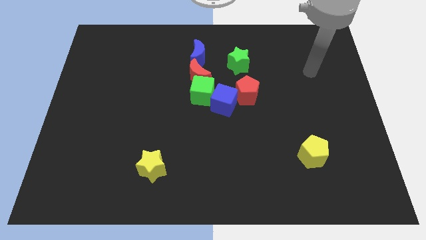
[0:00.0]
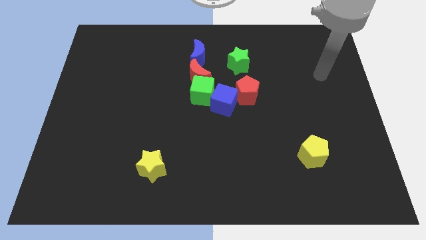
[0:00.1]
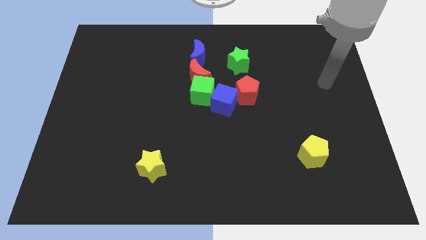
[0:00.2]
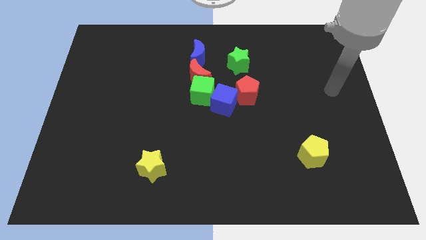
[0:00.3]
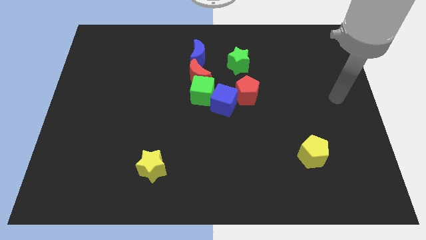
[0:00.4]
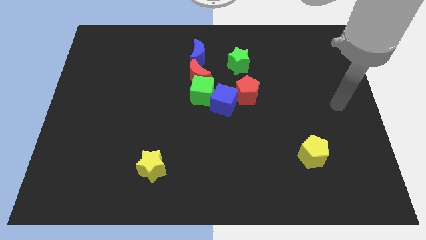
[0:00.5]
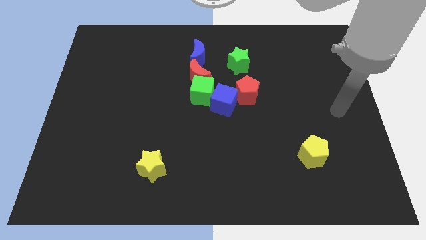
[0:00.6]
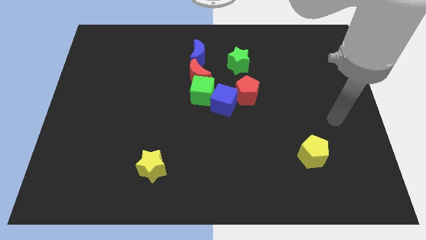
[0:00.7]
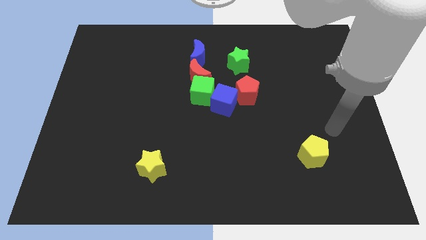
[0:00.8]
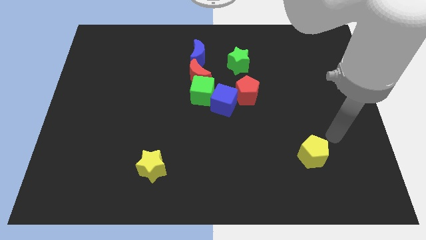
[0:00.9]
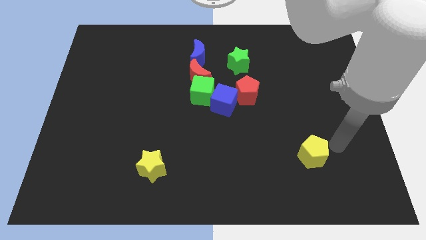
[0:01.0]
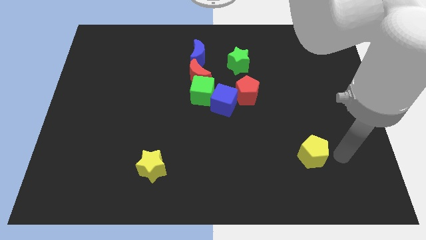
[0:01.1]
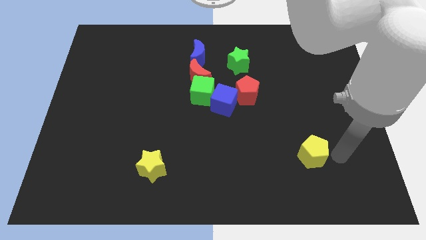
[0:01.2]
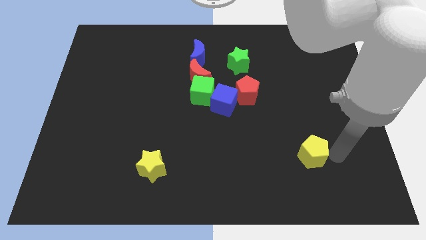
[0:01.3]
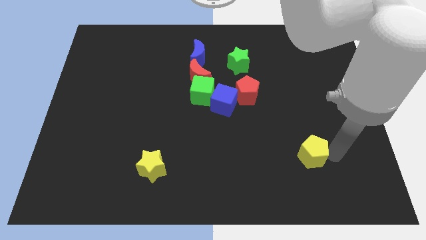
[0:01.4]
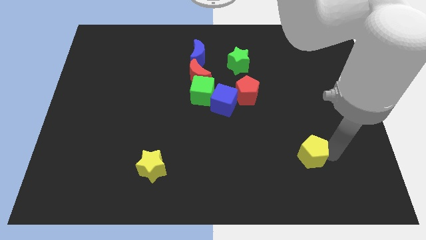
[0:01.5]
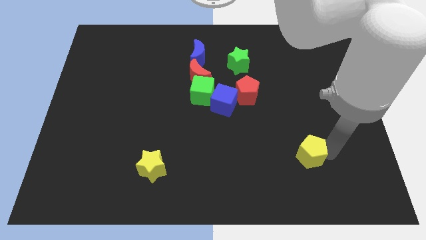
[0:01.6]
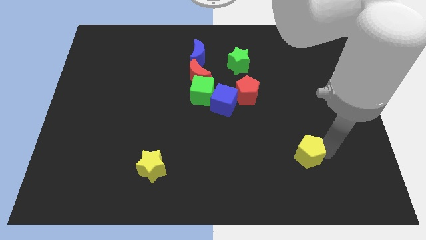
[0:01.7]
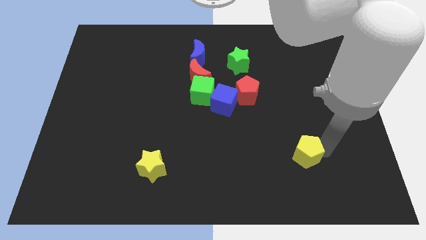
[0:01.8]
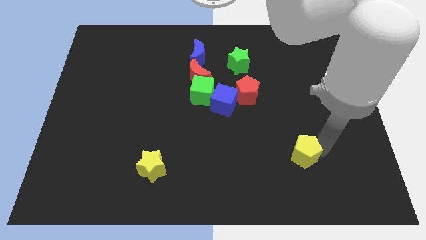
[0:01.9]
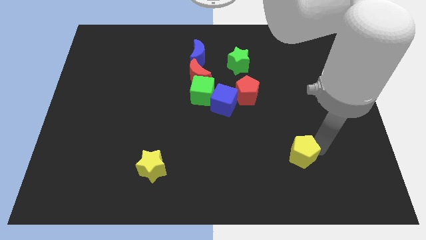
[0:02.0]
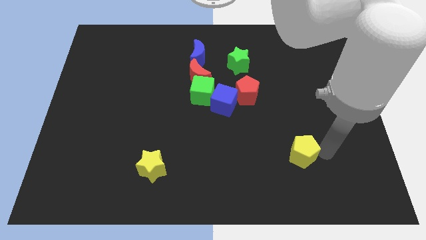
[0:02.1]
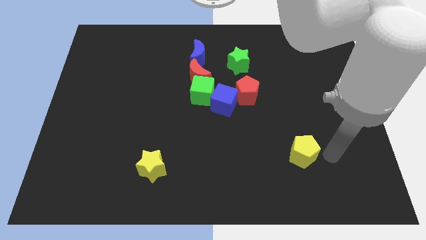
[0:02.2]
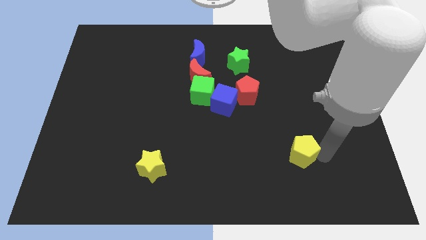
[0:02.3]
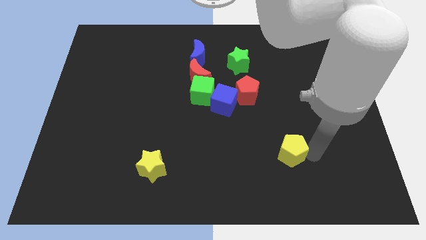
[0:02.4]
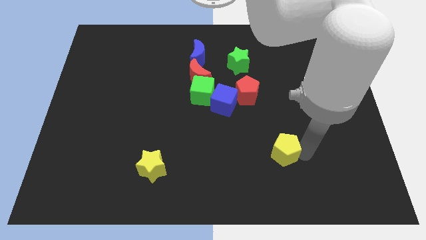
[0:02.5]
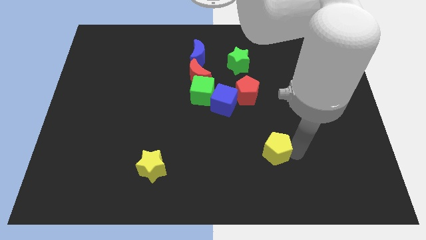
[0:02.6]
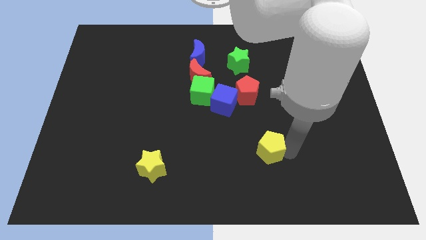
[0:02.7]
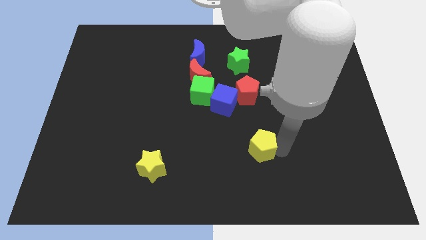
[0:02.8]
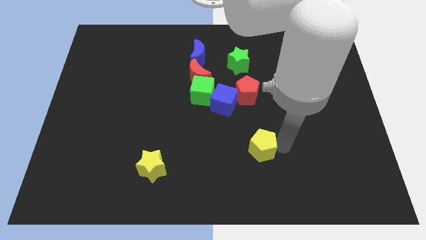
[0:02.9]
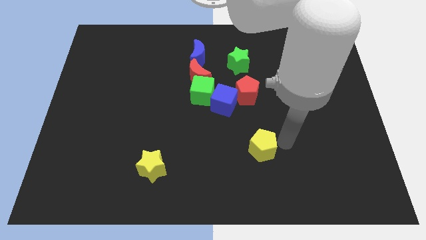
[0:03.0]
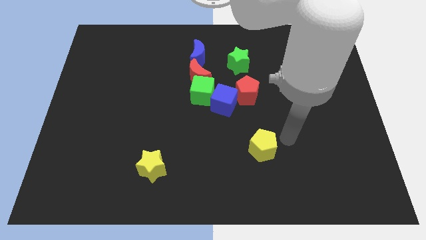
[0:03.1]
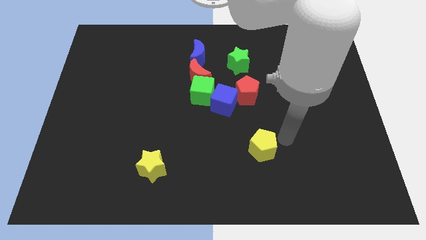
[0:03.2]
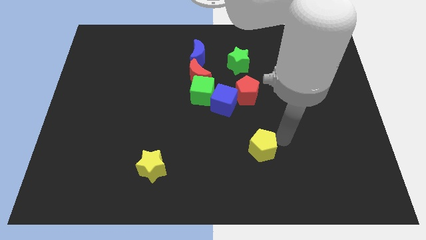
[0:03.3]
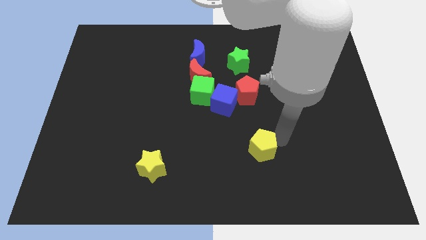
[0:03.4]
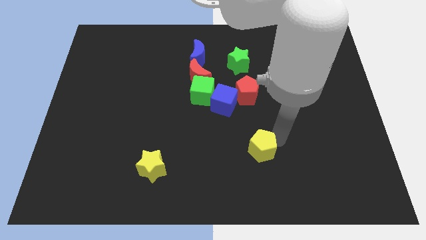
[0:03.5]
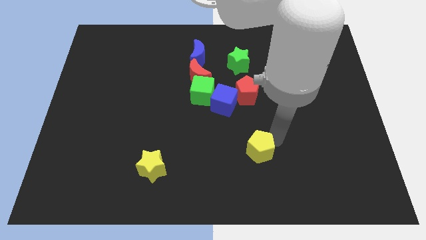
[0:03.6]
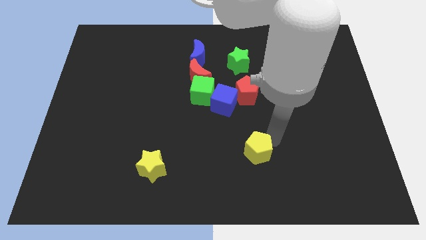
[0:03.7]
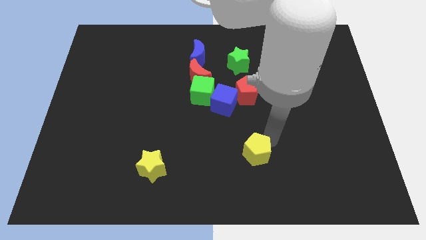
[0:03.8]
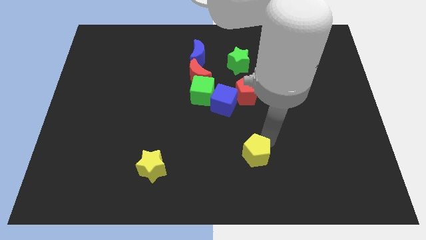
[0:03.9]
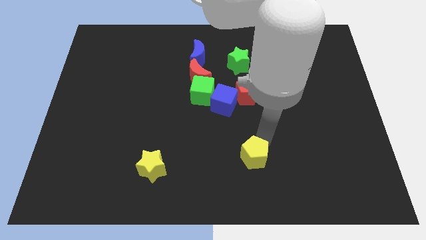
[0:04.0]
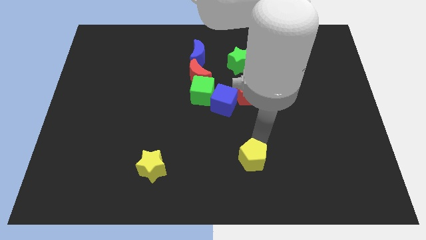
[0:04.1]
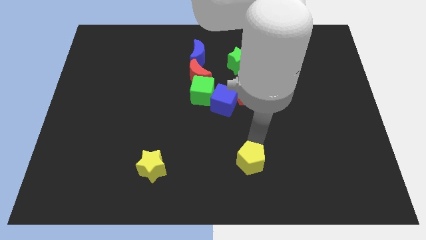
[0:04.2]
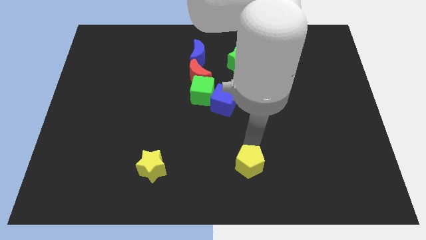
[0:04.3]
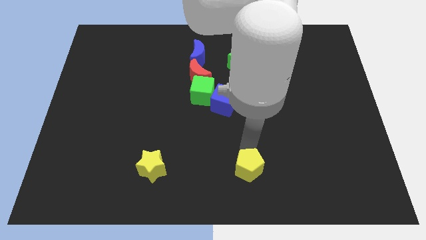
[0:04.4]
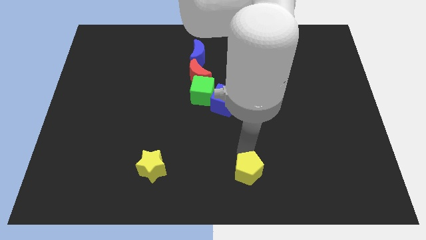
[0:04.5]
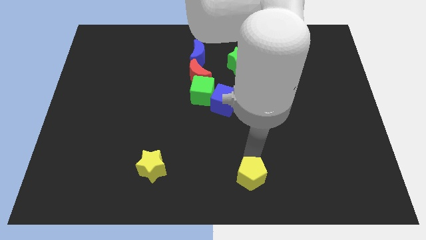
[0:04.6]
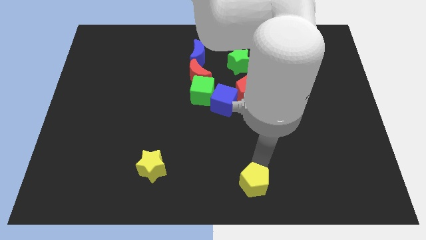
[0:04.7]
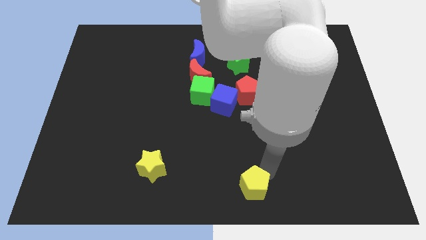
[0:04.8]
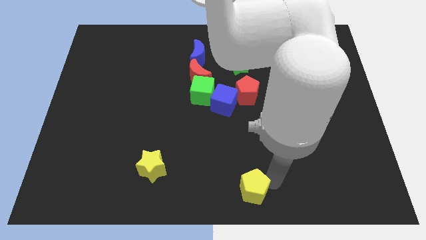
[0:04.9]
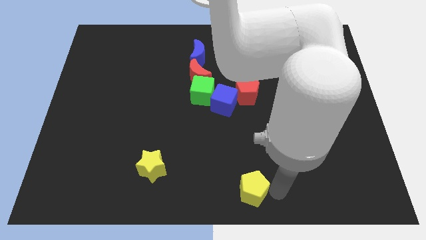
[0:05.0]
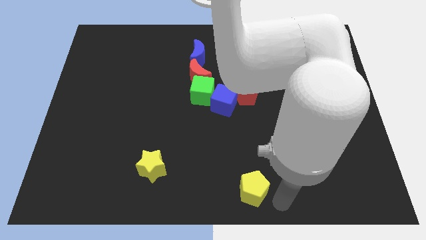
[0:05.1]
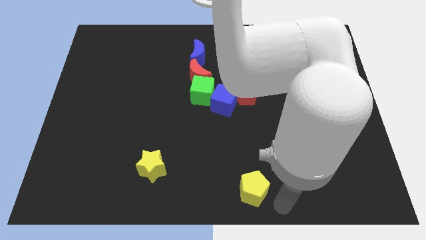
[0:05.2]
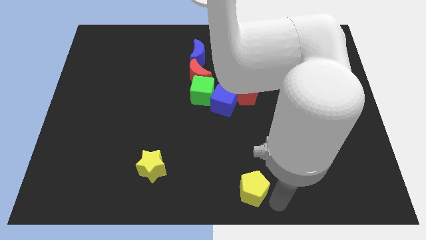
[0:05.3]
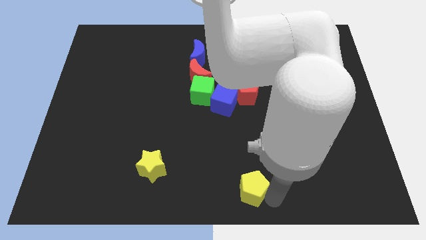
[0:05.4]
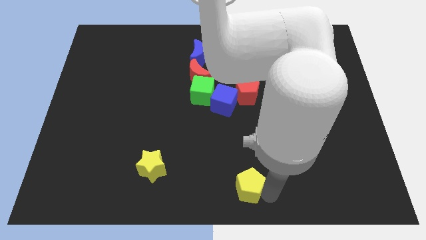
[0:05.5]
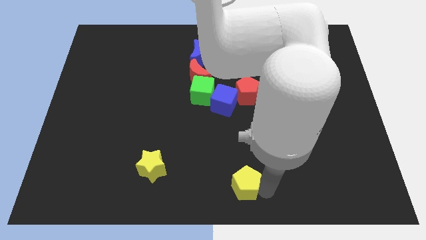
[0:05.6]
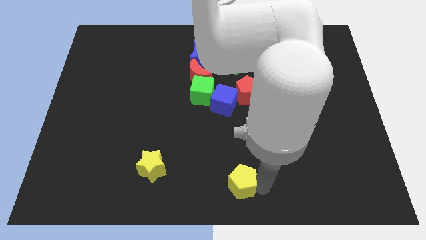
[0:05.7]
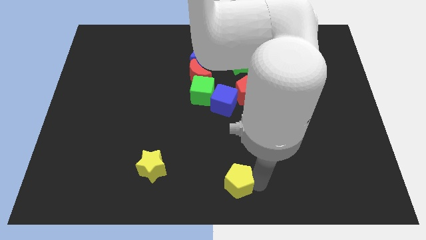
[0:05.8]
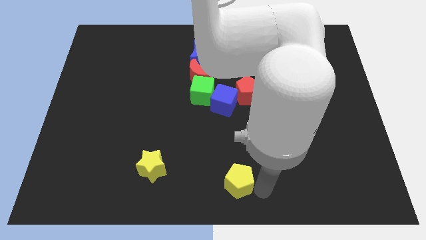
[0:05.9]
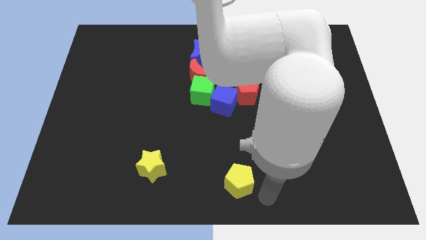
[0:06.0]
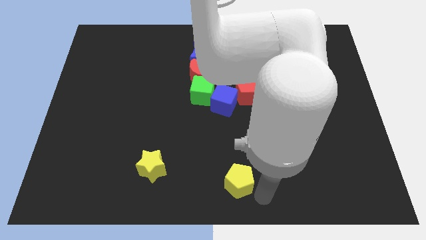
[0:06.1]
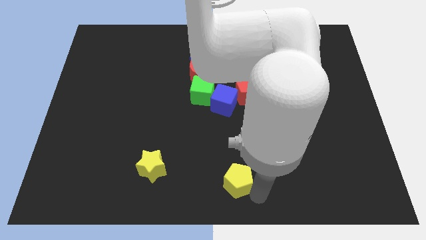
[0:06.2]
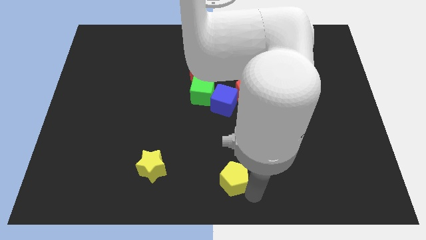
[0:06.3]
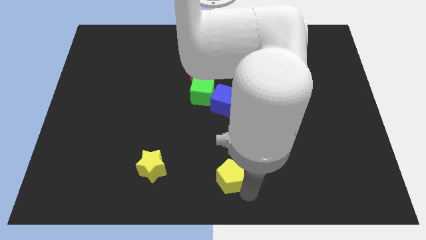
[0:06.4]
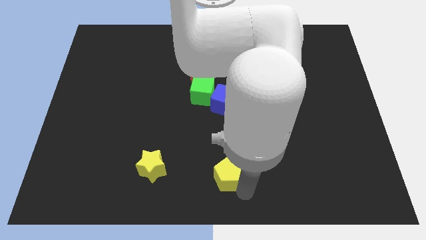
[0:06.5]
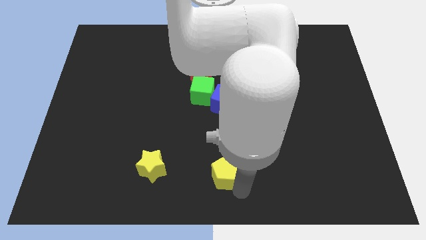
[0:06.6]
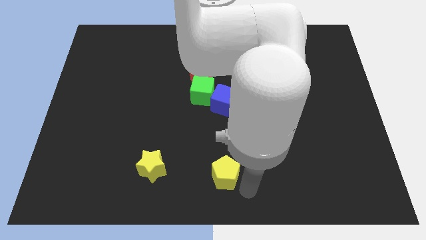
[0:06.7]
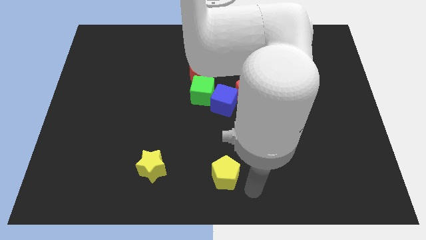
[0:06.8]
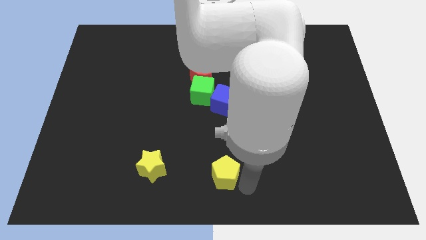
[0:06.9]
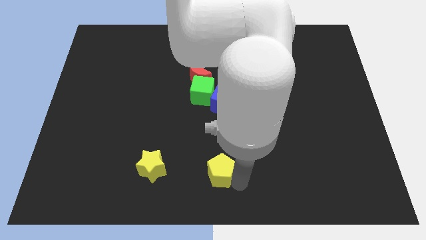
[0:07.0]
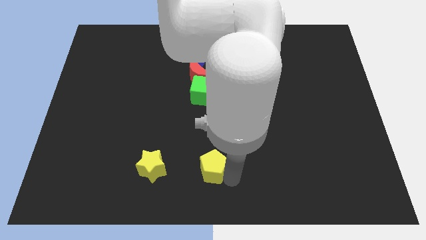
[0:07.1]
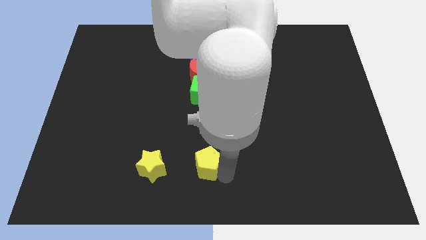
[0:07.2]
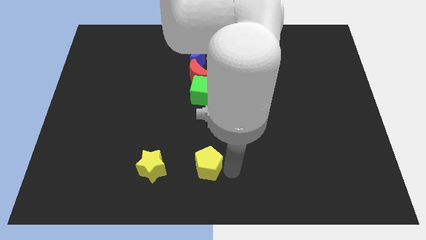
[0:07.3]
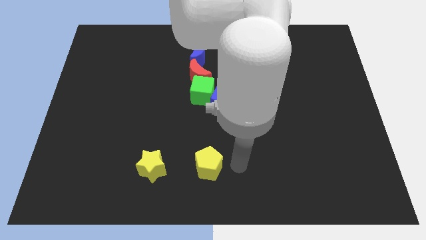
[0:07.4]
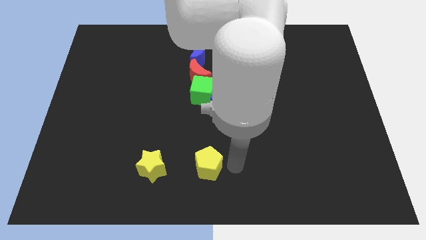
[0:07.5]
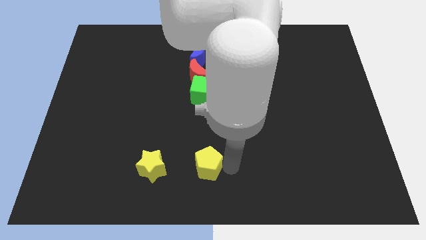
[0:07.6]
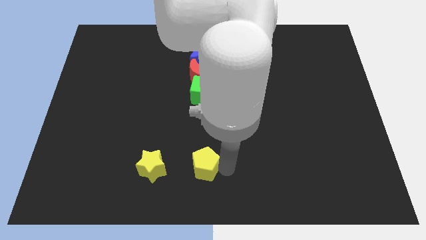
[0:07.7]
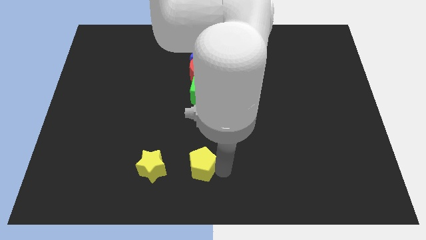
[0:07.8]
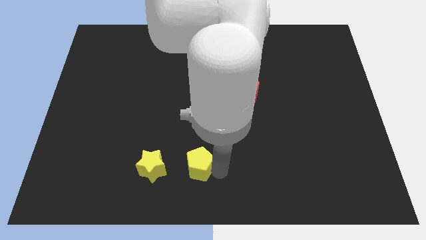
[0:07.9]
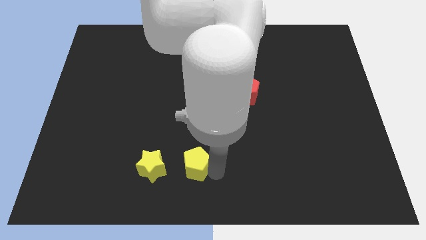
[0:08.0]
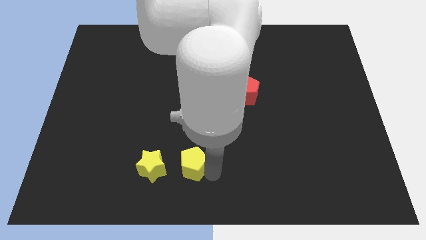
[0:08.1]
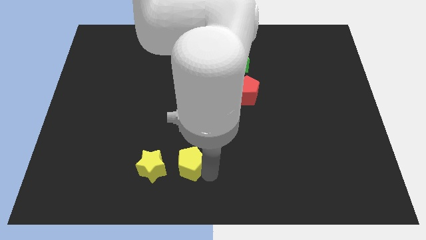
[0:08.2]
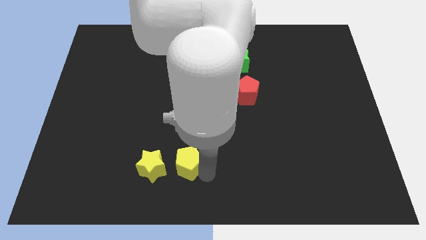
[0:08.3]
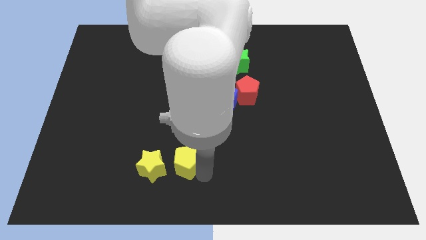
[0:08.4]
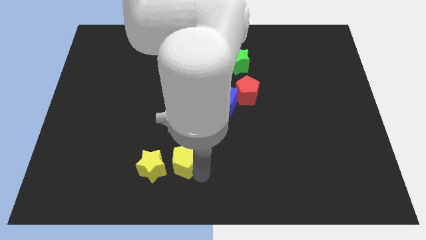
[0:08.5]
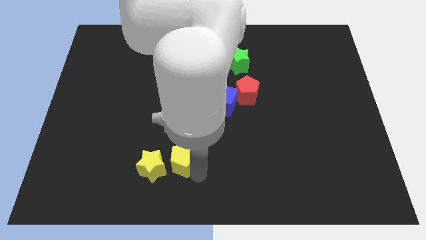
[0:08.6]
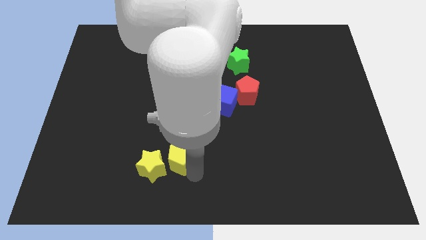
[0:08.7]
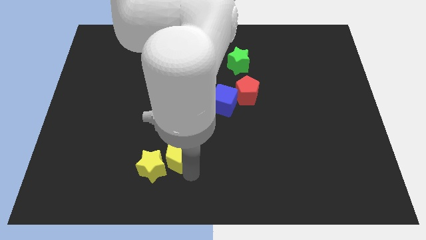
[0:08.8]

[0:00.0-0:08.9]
put the yellow pentagon towards the yellow star
